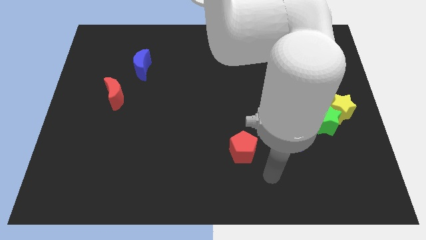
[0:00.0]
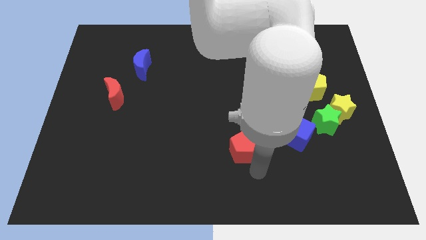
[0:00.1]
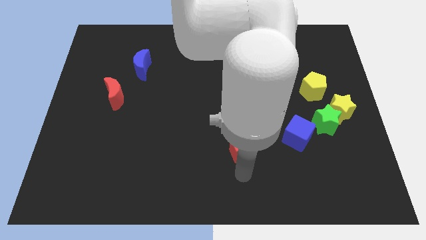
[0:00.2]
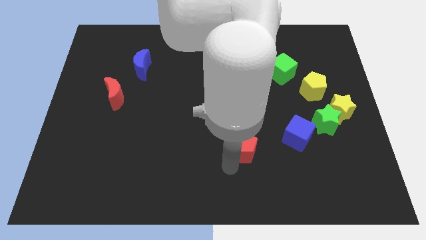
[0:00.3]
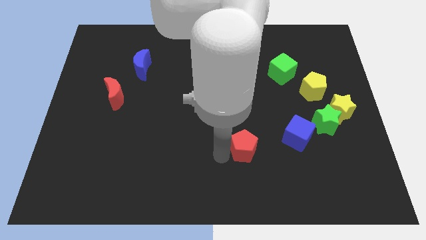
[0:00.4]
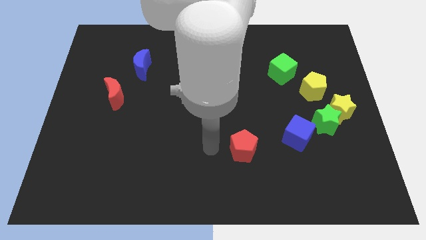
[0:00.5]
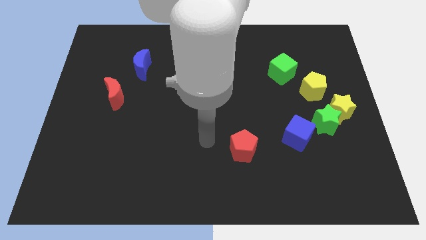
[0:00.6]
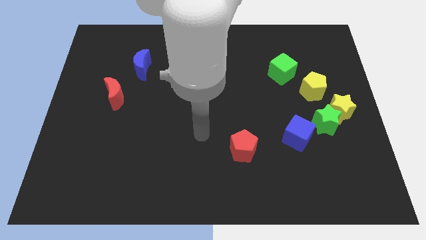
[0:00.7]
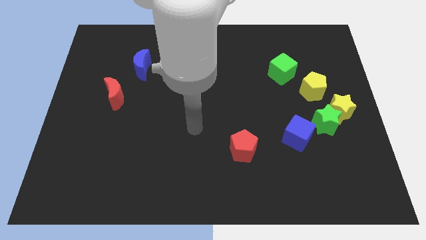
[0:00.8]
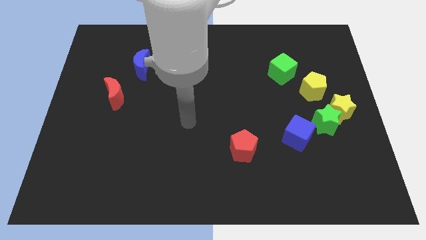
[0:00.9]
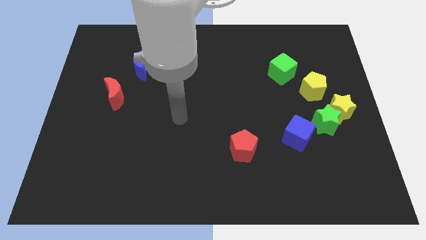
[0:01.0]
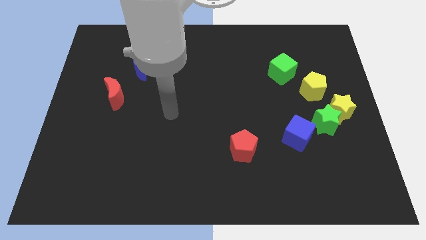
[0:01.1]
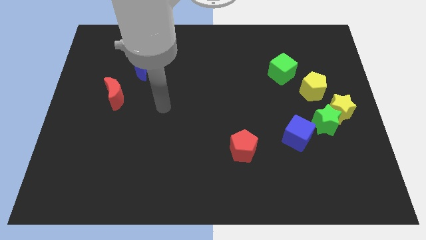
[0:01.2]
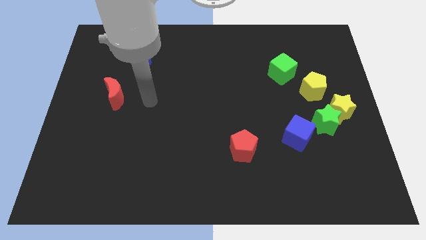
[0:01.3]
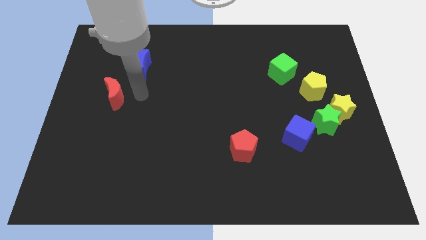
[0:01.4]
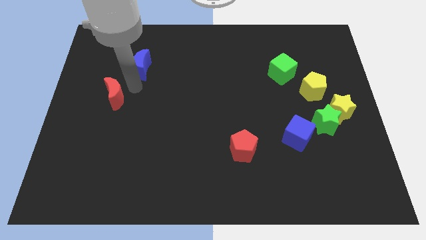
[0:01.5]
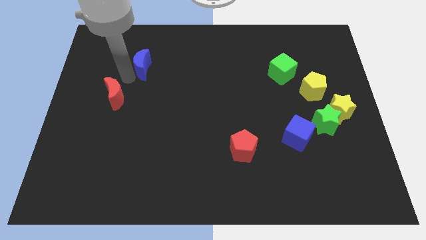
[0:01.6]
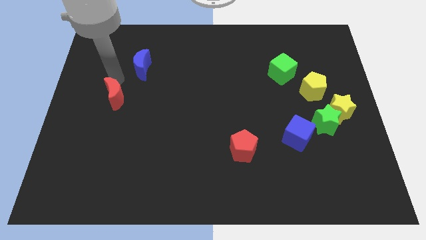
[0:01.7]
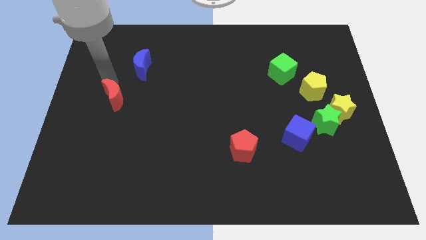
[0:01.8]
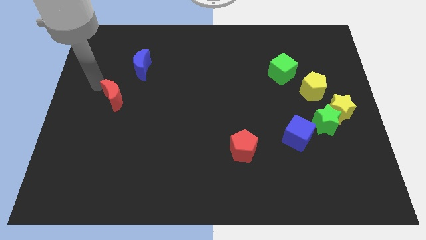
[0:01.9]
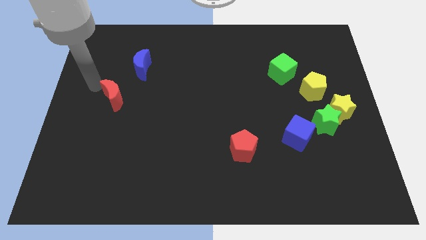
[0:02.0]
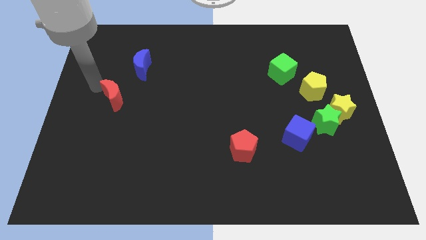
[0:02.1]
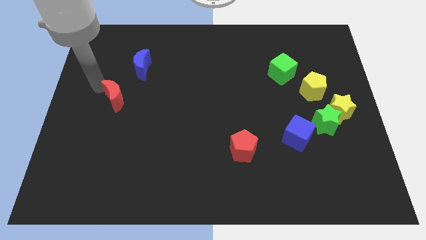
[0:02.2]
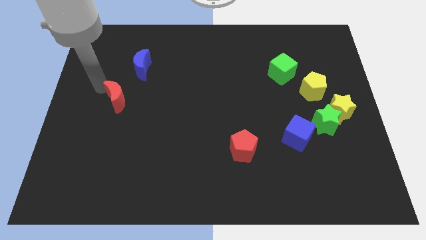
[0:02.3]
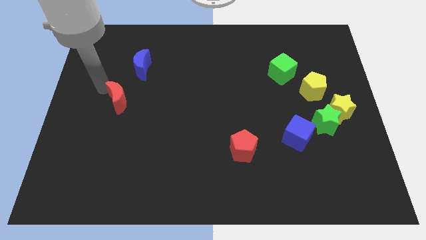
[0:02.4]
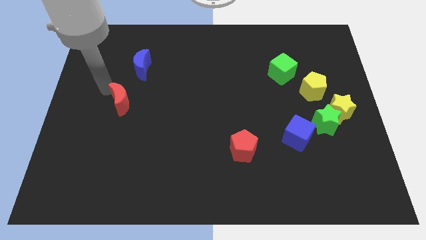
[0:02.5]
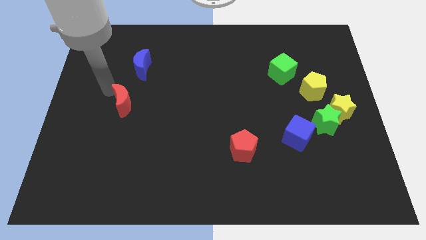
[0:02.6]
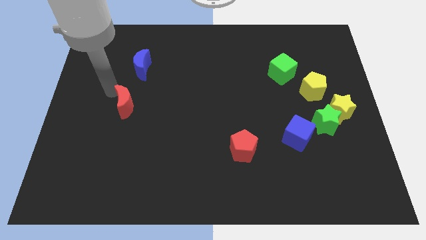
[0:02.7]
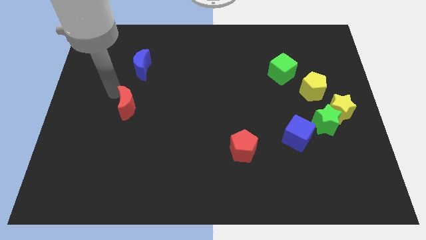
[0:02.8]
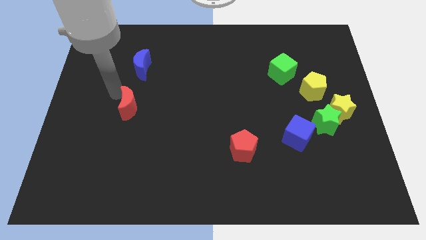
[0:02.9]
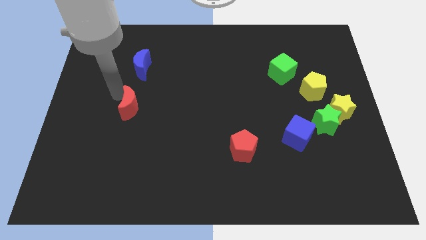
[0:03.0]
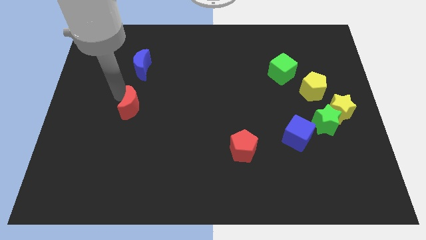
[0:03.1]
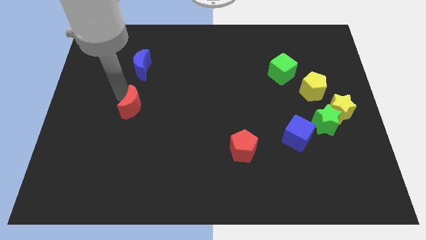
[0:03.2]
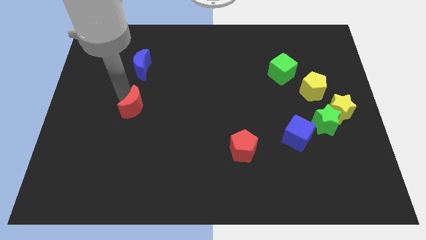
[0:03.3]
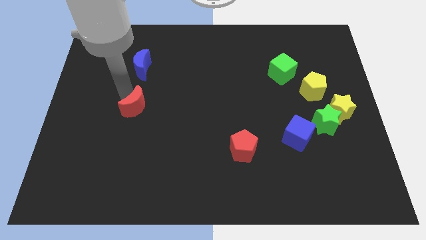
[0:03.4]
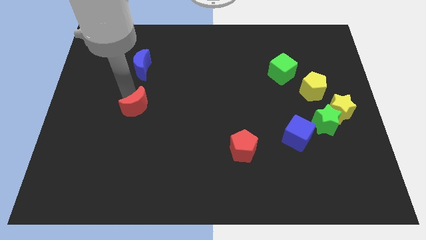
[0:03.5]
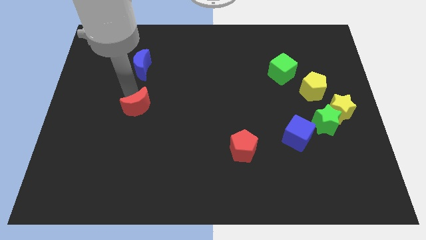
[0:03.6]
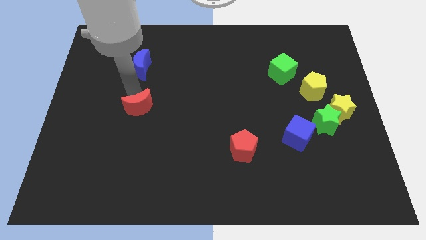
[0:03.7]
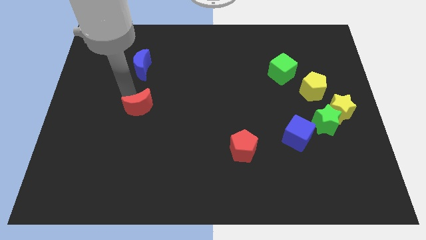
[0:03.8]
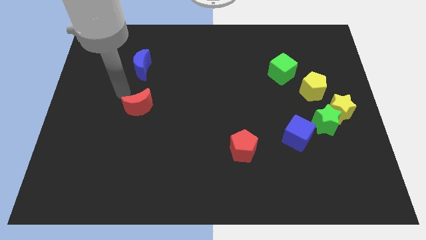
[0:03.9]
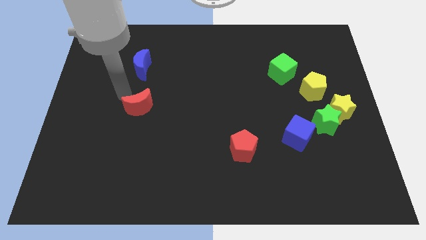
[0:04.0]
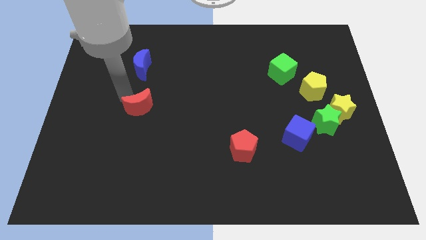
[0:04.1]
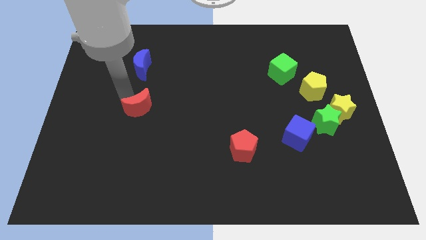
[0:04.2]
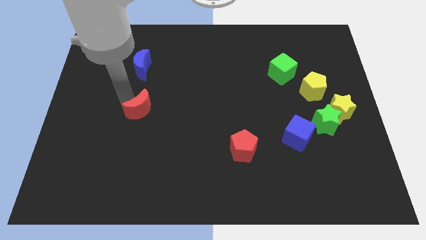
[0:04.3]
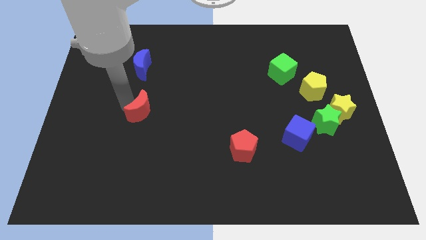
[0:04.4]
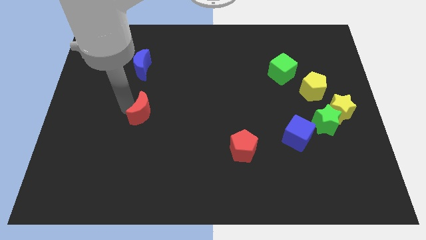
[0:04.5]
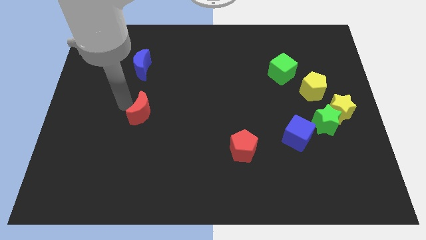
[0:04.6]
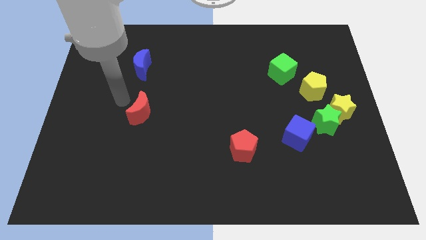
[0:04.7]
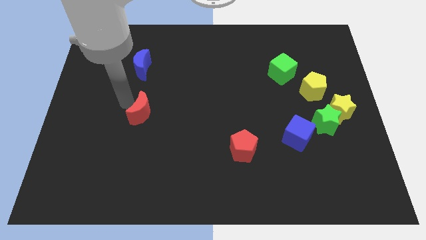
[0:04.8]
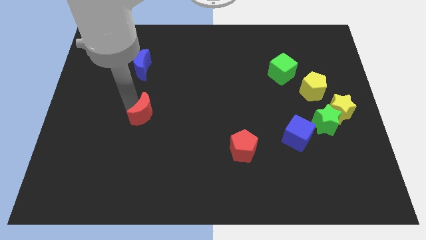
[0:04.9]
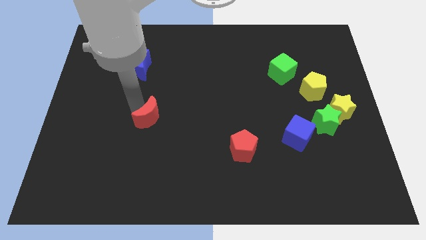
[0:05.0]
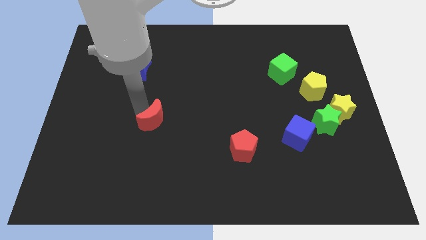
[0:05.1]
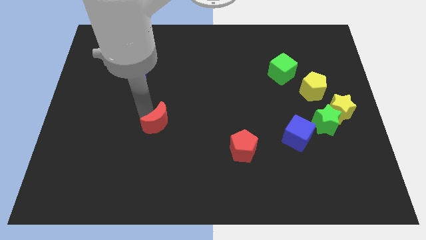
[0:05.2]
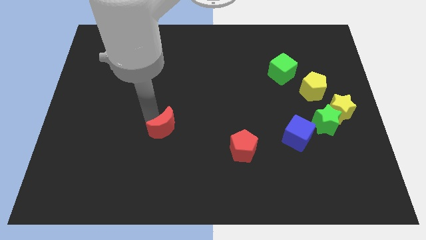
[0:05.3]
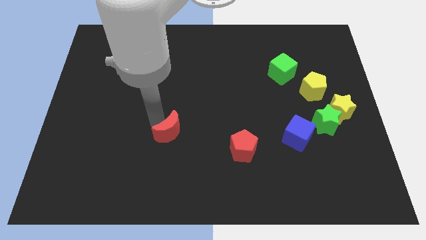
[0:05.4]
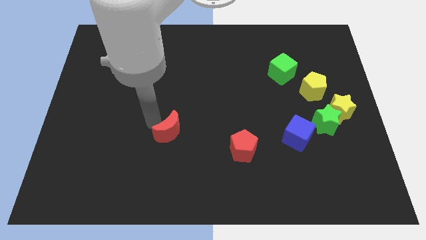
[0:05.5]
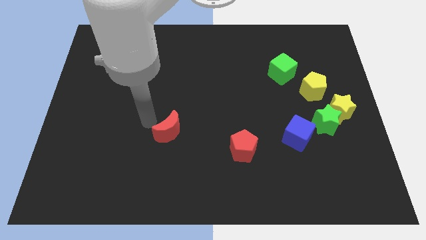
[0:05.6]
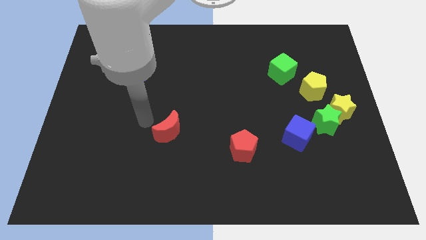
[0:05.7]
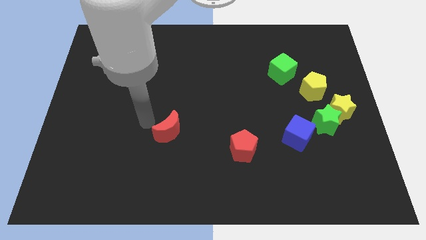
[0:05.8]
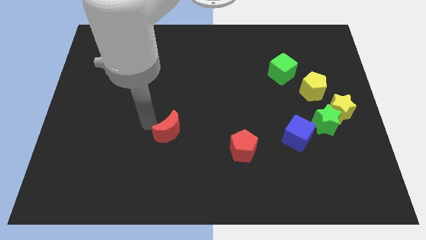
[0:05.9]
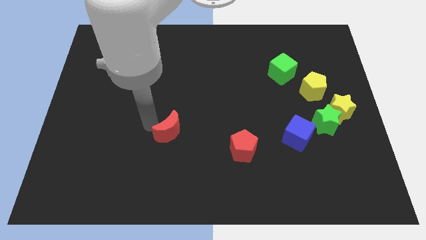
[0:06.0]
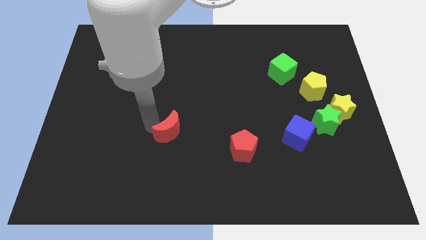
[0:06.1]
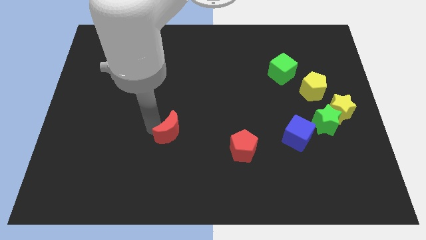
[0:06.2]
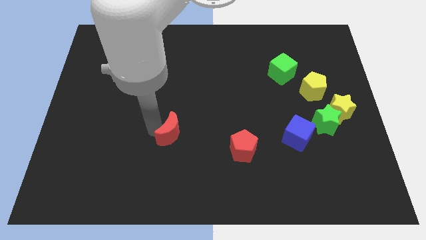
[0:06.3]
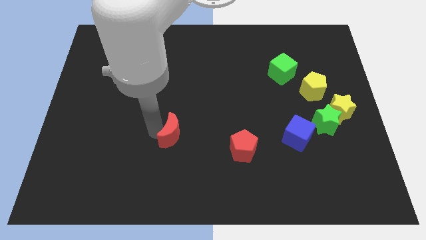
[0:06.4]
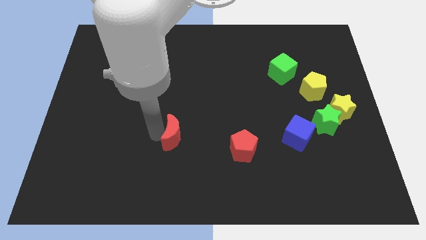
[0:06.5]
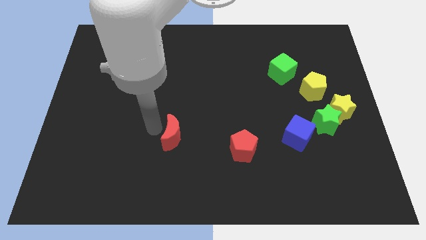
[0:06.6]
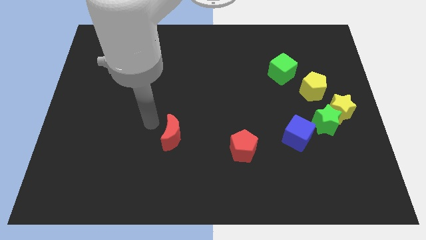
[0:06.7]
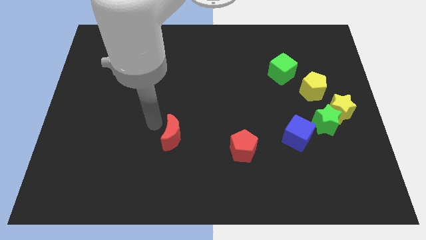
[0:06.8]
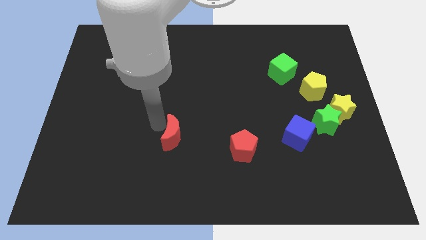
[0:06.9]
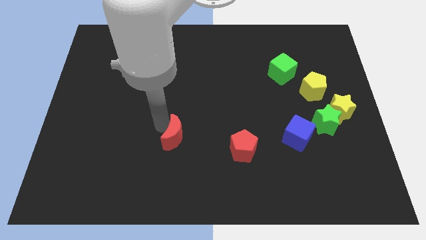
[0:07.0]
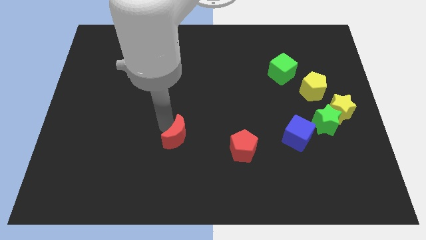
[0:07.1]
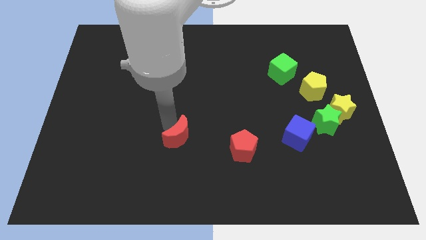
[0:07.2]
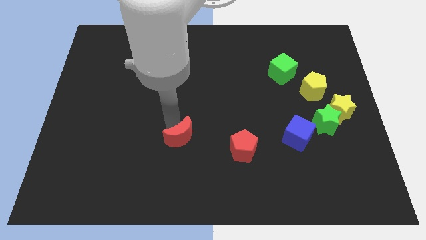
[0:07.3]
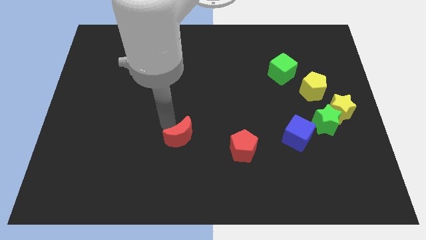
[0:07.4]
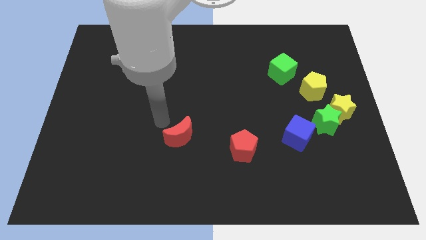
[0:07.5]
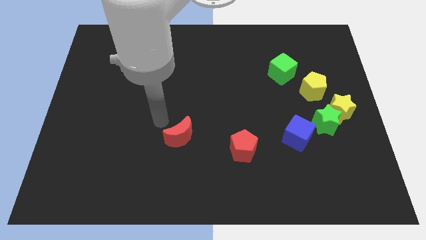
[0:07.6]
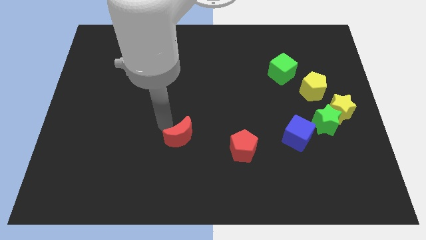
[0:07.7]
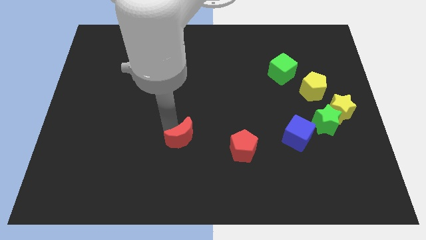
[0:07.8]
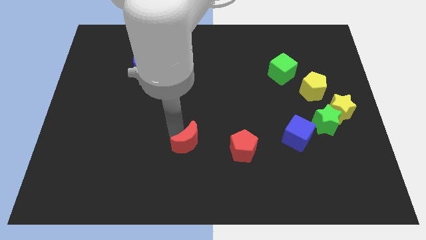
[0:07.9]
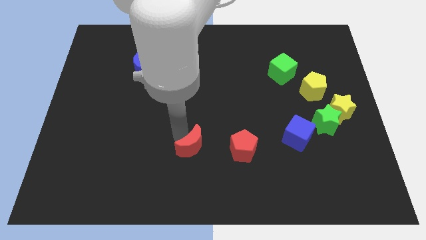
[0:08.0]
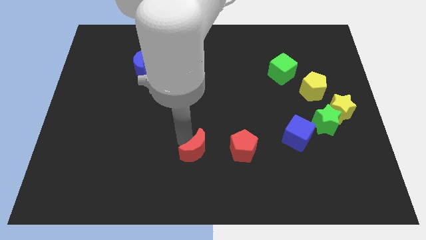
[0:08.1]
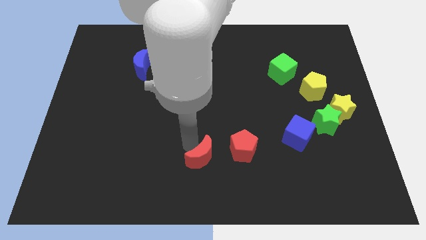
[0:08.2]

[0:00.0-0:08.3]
slide the red moon to the bottom left side of the red pentagon
